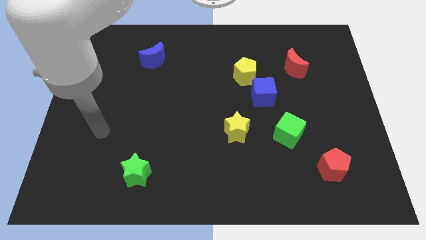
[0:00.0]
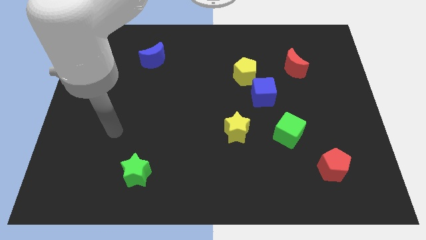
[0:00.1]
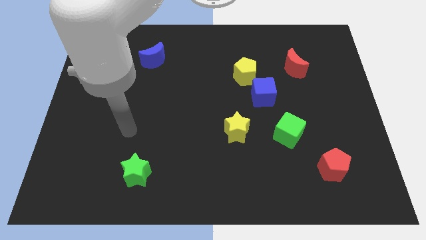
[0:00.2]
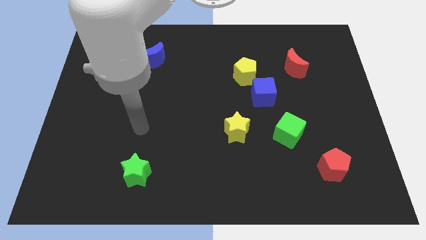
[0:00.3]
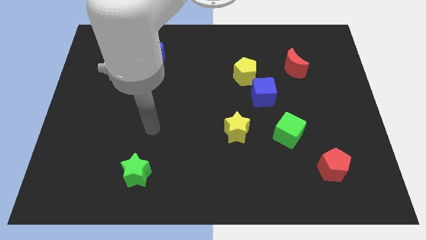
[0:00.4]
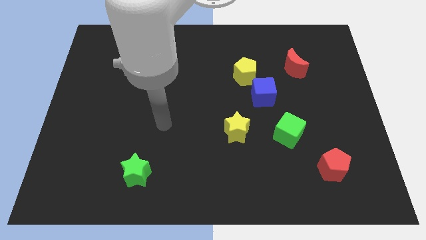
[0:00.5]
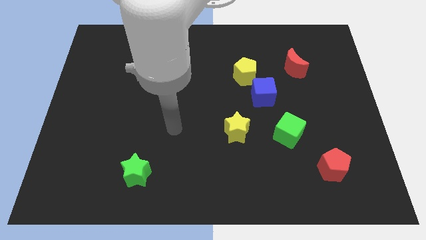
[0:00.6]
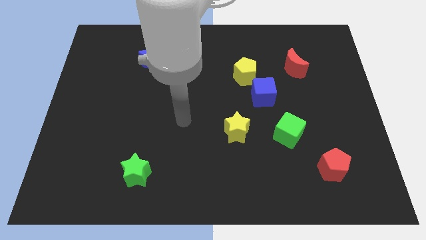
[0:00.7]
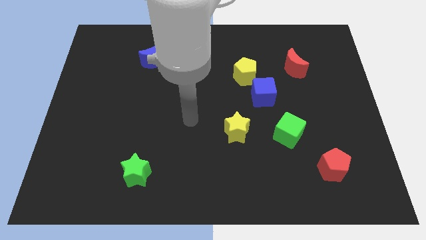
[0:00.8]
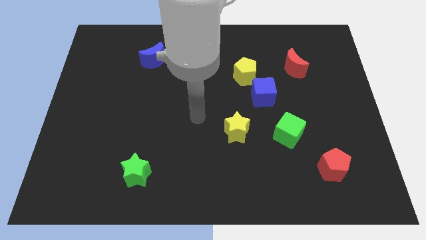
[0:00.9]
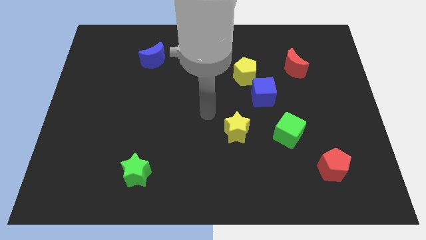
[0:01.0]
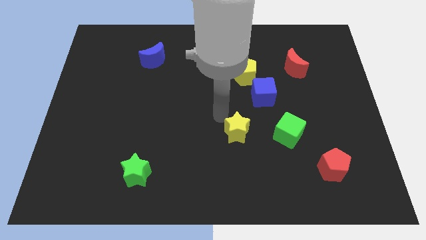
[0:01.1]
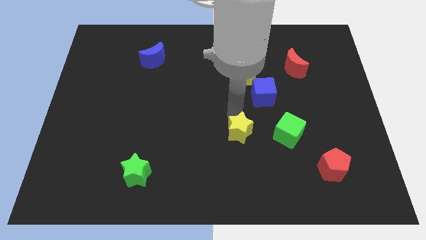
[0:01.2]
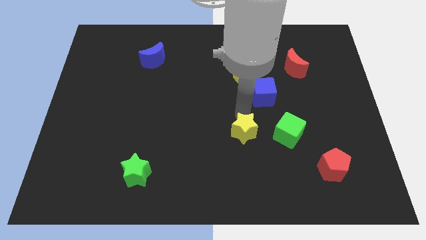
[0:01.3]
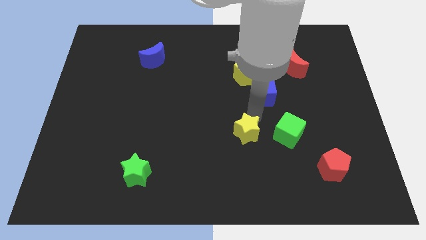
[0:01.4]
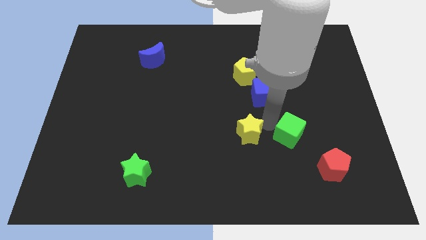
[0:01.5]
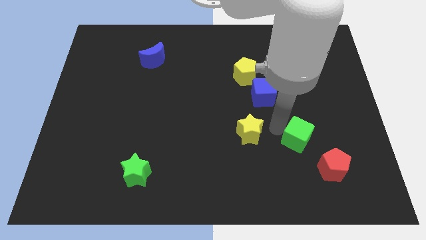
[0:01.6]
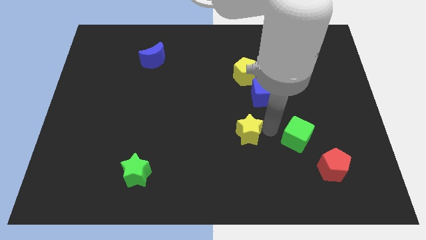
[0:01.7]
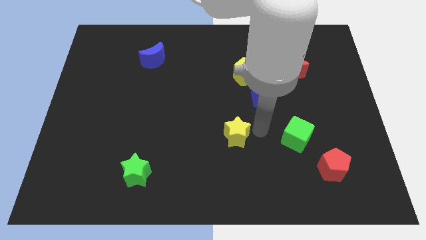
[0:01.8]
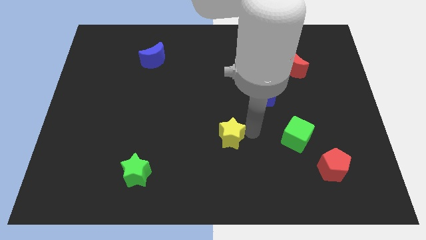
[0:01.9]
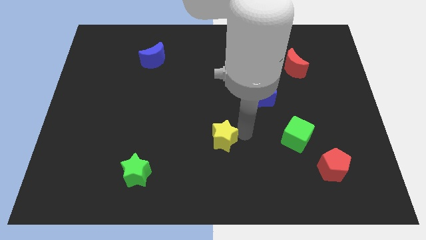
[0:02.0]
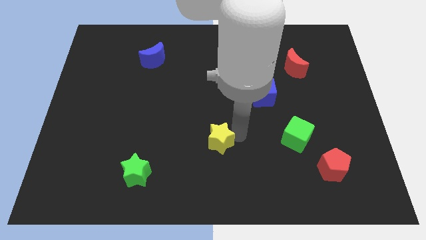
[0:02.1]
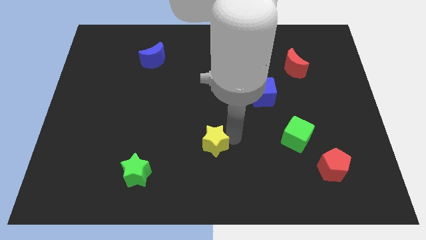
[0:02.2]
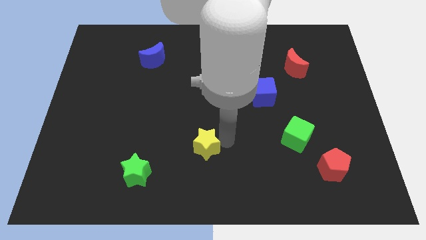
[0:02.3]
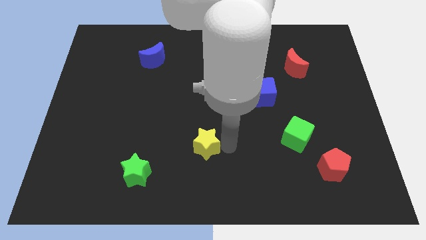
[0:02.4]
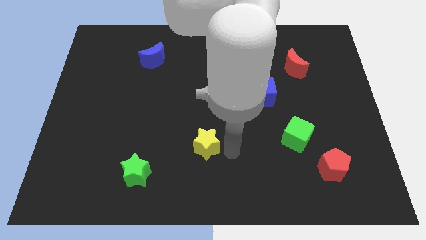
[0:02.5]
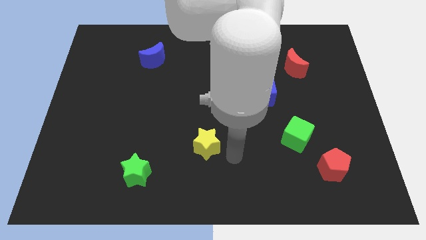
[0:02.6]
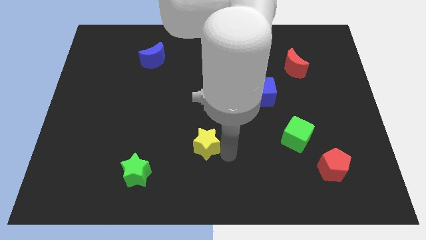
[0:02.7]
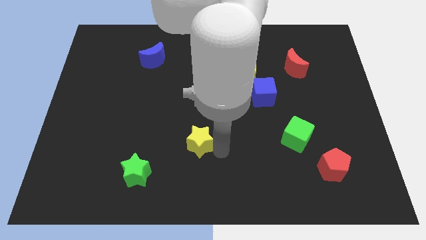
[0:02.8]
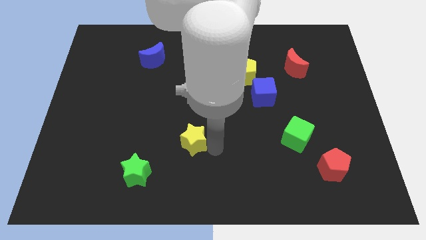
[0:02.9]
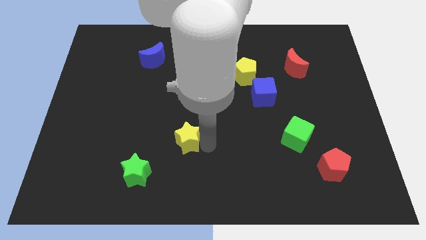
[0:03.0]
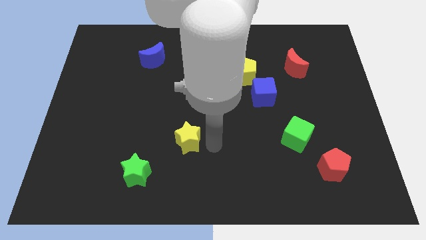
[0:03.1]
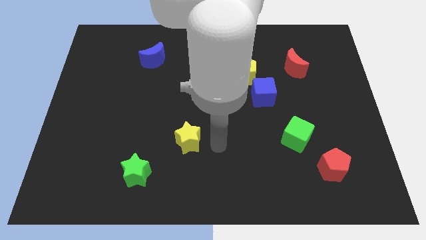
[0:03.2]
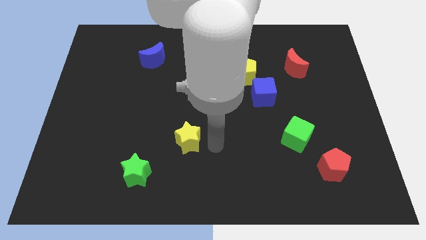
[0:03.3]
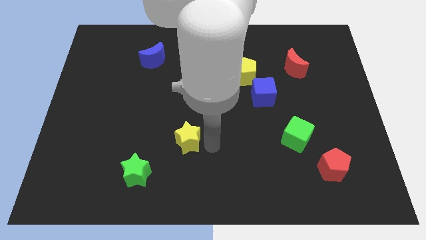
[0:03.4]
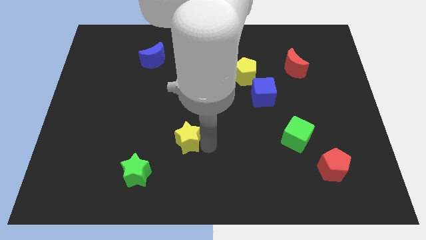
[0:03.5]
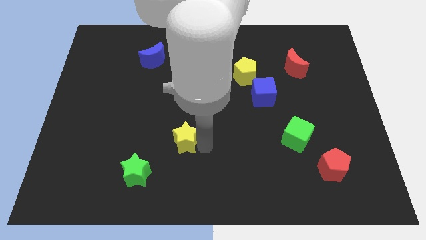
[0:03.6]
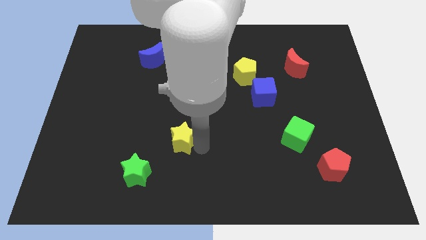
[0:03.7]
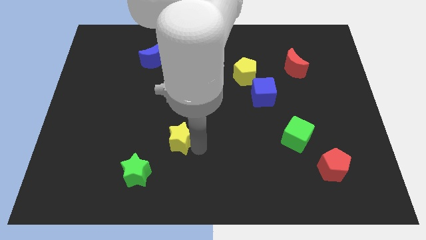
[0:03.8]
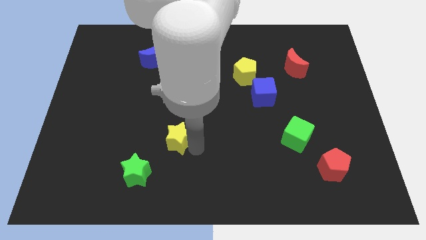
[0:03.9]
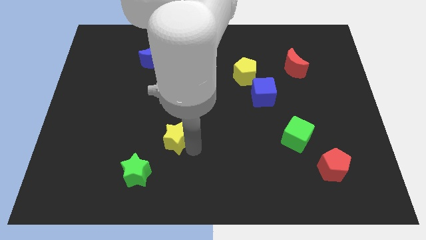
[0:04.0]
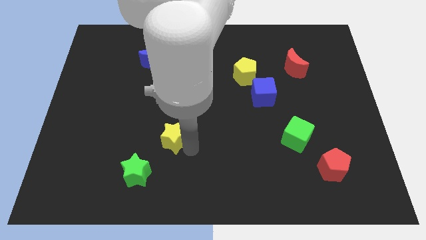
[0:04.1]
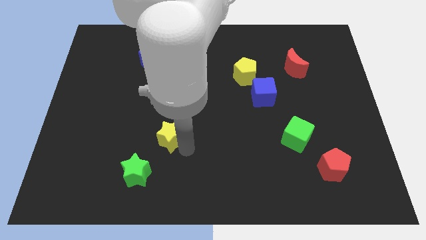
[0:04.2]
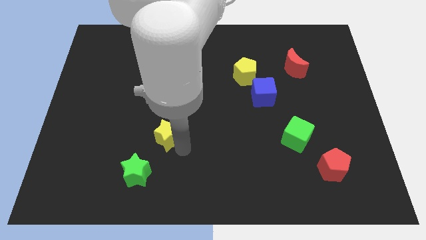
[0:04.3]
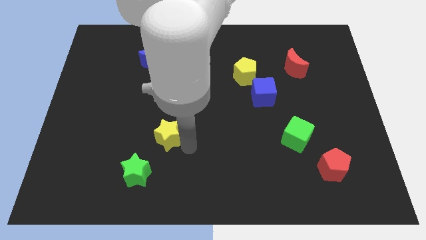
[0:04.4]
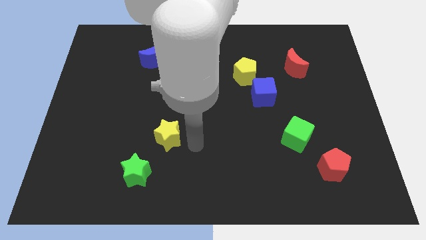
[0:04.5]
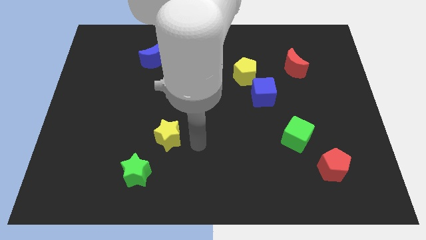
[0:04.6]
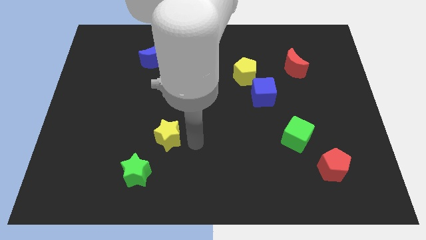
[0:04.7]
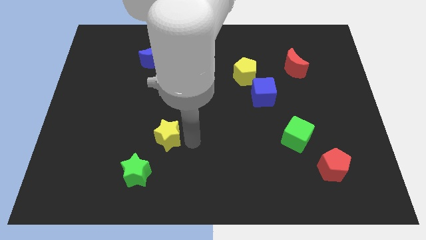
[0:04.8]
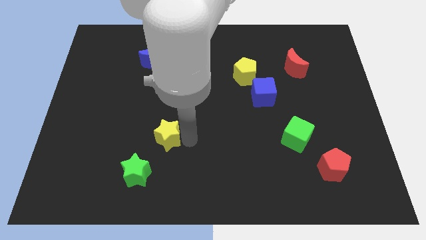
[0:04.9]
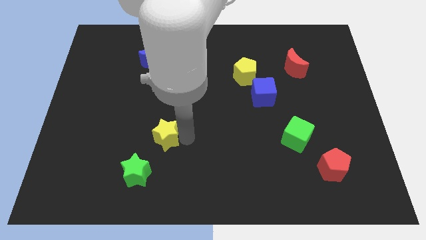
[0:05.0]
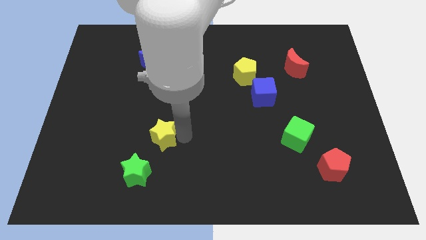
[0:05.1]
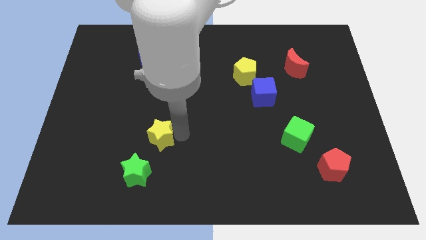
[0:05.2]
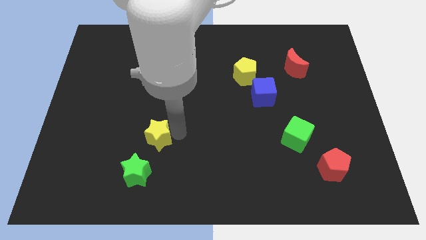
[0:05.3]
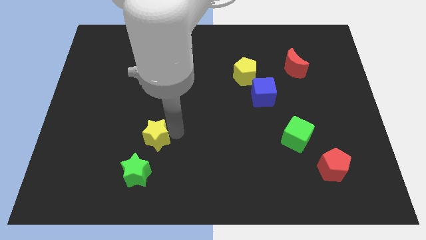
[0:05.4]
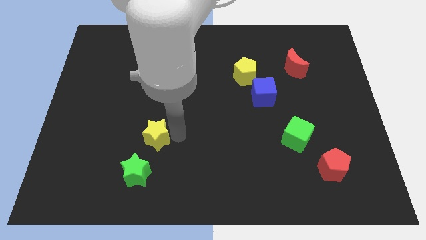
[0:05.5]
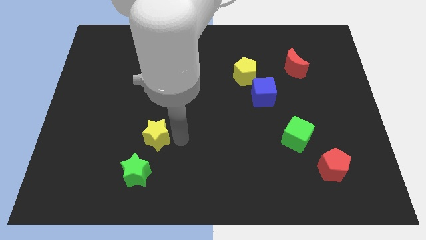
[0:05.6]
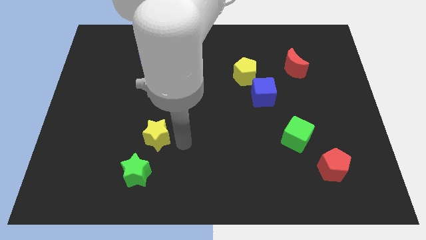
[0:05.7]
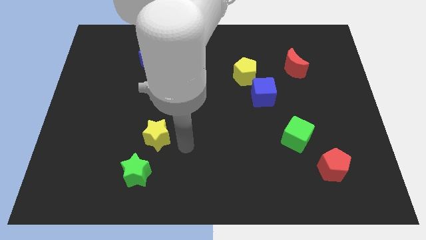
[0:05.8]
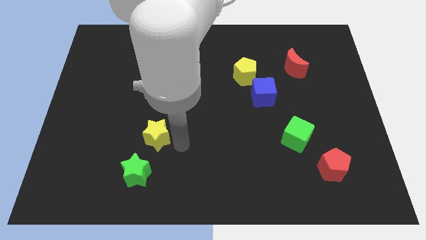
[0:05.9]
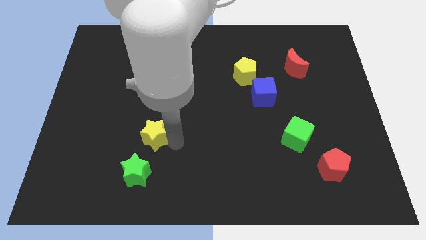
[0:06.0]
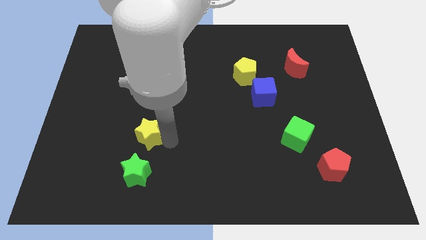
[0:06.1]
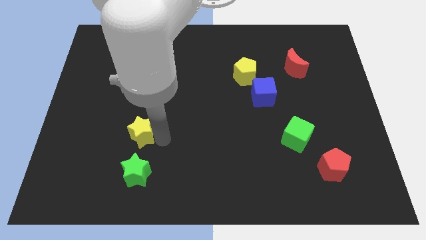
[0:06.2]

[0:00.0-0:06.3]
move the yellow star left

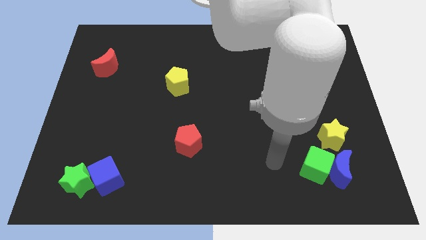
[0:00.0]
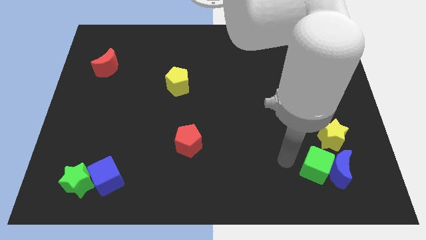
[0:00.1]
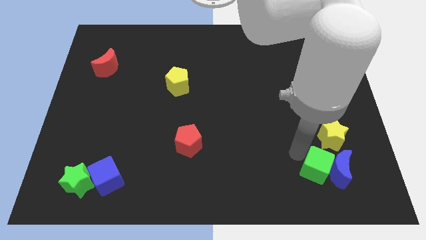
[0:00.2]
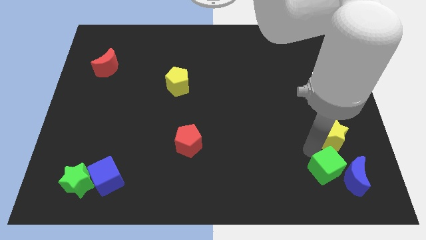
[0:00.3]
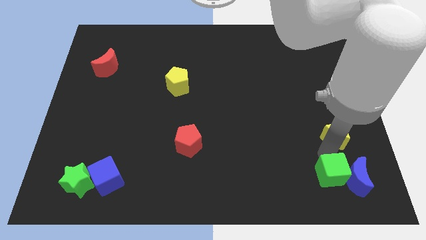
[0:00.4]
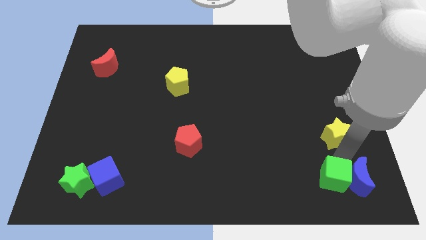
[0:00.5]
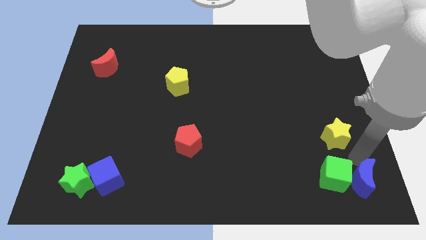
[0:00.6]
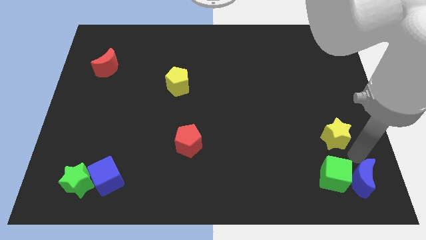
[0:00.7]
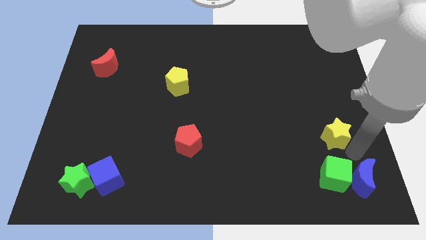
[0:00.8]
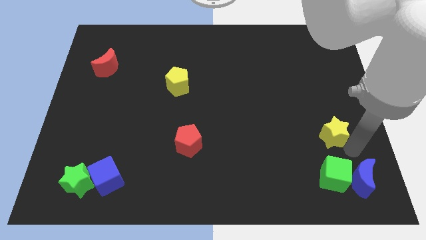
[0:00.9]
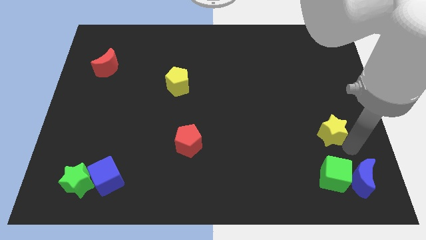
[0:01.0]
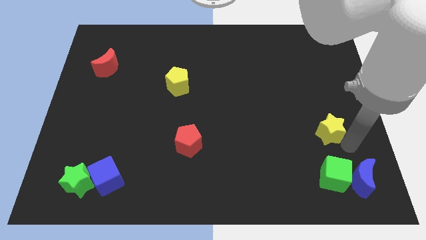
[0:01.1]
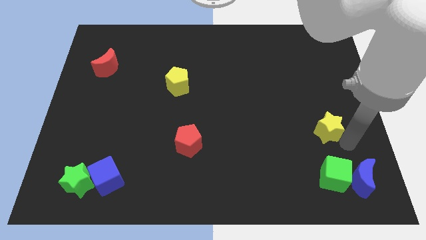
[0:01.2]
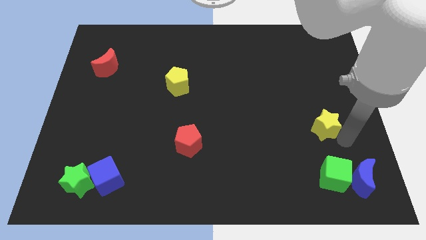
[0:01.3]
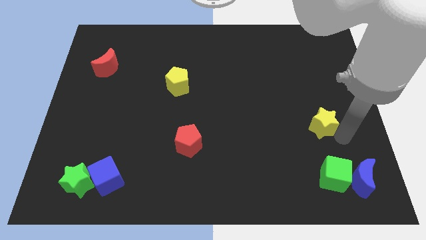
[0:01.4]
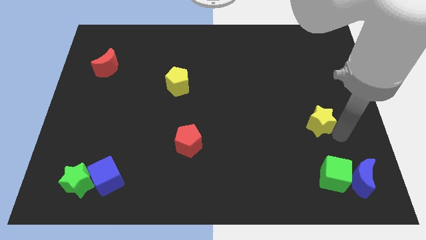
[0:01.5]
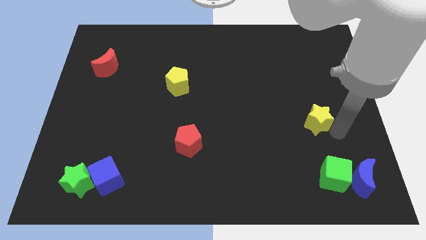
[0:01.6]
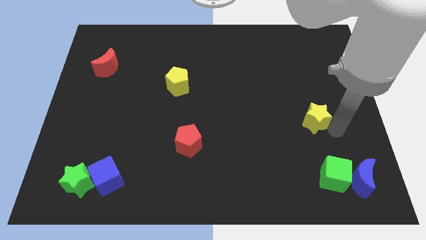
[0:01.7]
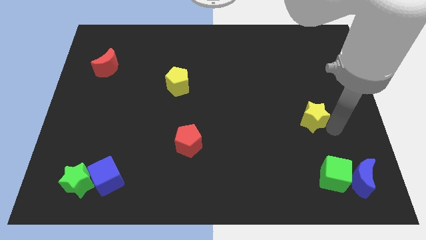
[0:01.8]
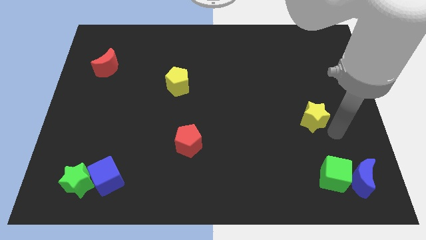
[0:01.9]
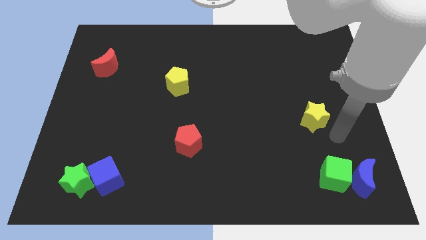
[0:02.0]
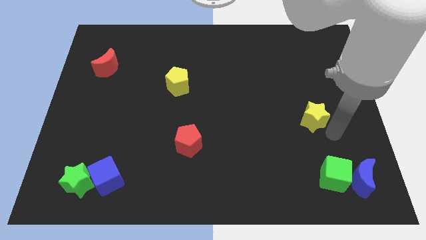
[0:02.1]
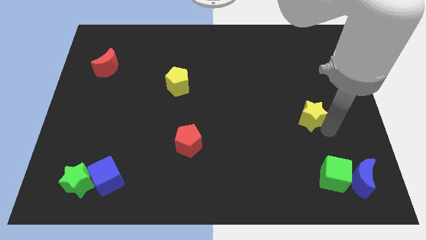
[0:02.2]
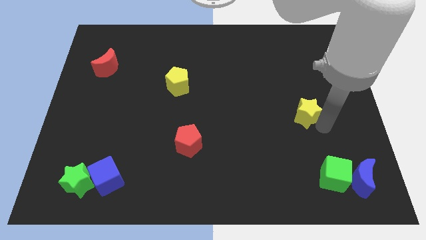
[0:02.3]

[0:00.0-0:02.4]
slightly move the yellow star upwards and to the left diagonally
